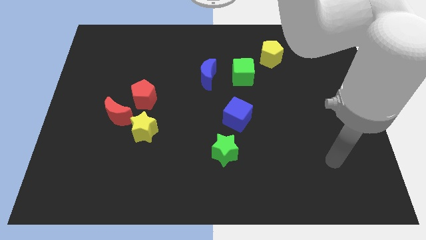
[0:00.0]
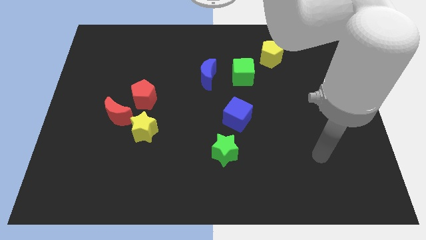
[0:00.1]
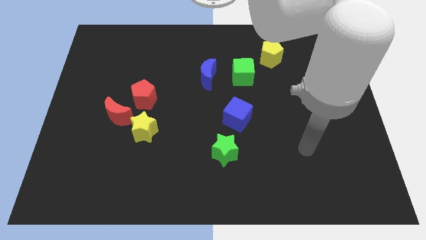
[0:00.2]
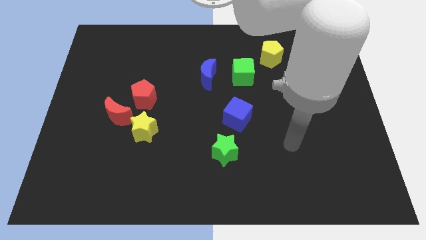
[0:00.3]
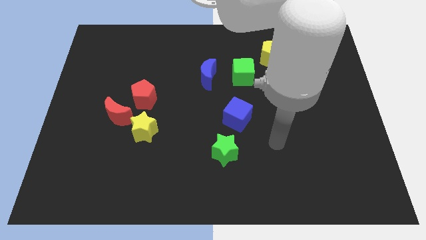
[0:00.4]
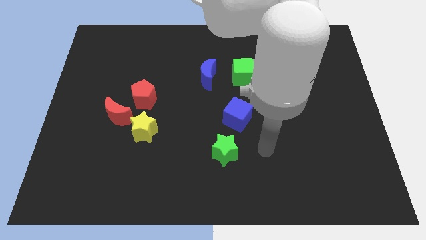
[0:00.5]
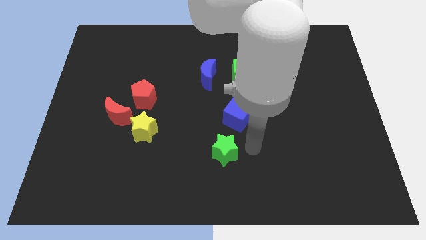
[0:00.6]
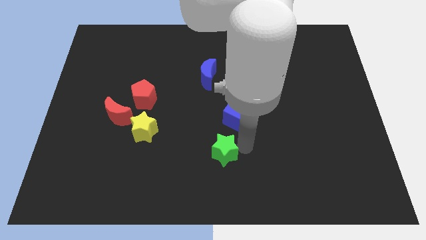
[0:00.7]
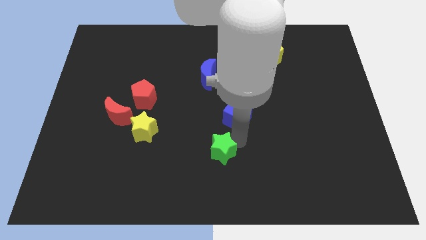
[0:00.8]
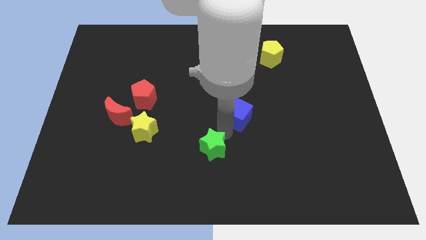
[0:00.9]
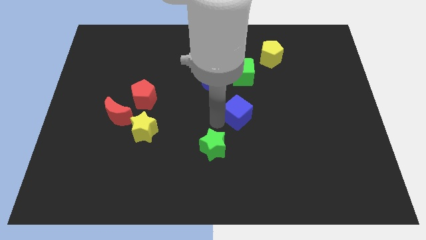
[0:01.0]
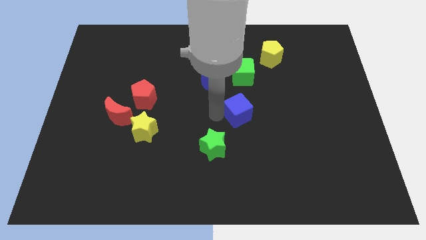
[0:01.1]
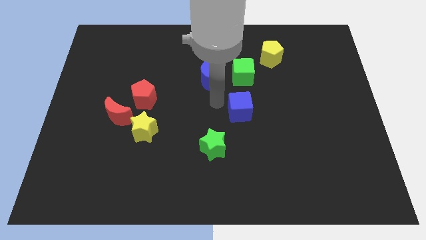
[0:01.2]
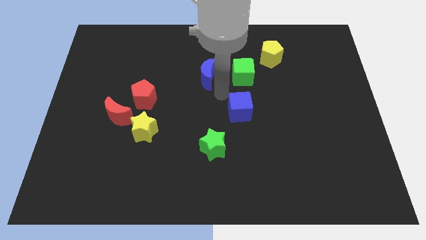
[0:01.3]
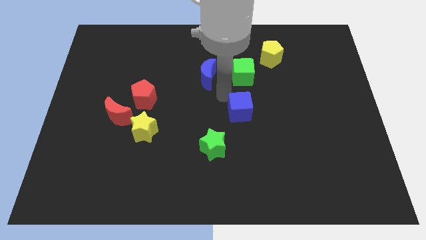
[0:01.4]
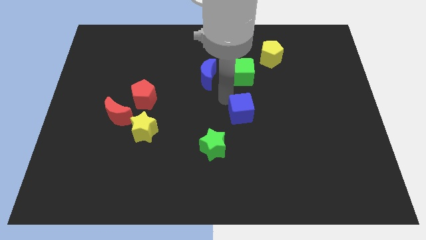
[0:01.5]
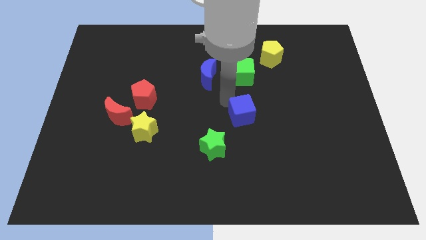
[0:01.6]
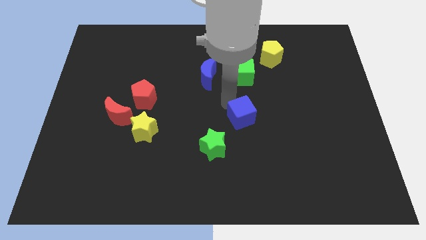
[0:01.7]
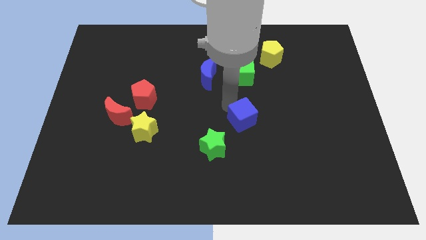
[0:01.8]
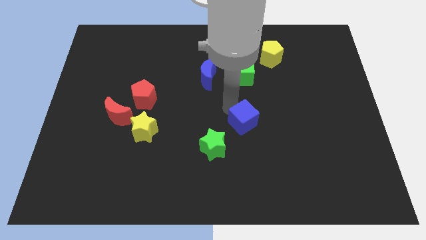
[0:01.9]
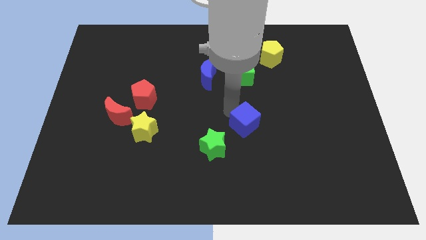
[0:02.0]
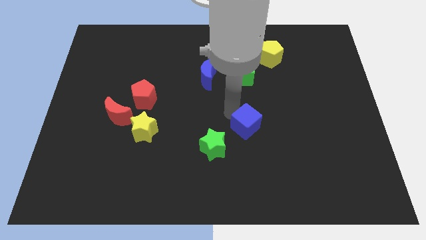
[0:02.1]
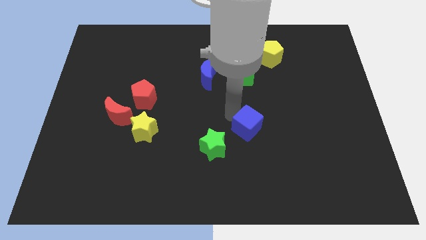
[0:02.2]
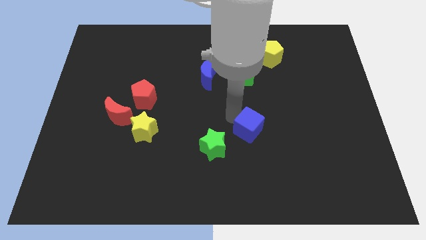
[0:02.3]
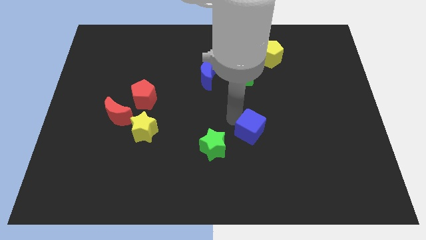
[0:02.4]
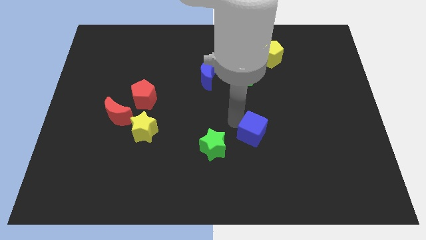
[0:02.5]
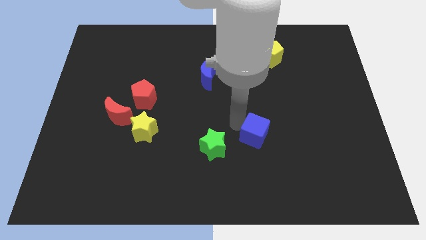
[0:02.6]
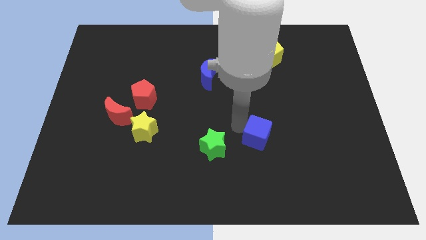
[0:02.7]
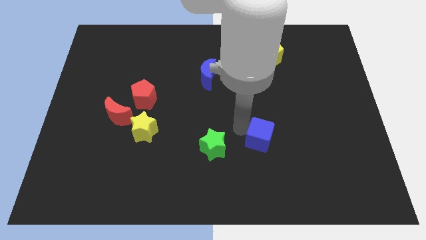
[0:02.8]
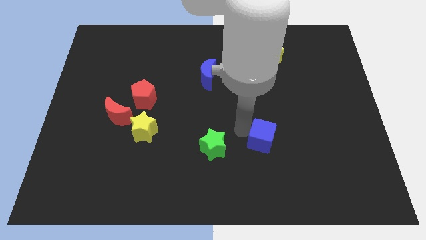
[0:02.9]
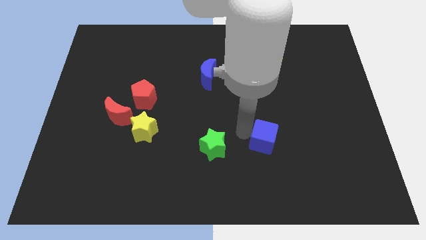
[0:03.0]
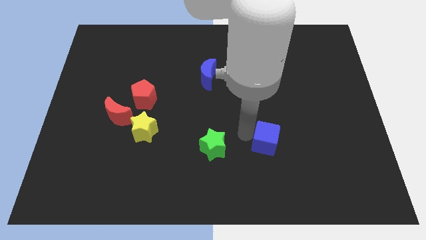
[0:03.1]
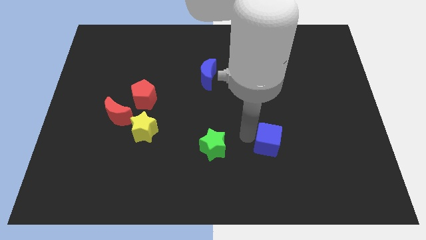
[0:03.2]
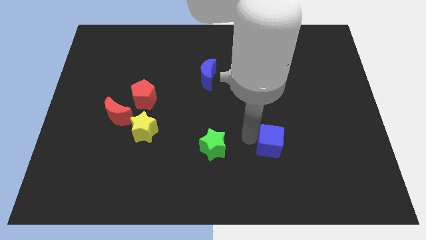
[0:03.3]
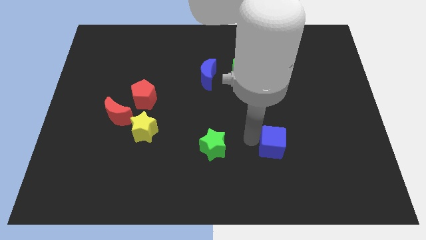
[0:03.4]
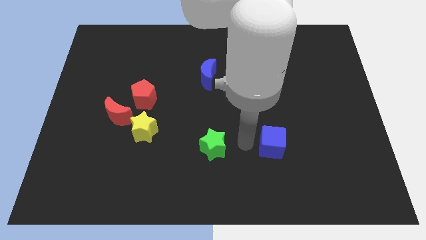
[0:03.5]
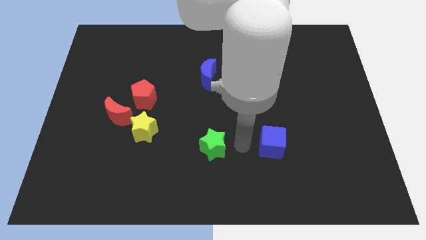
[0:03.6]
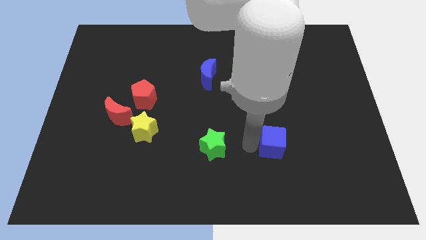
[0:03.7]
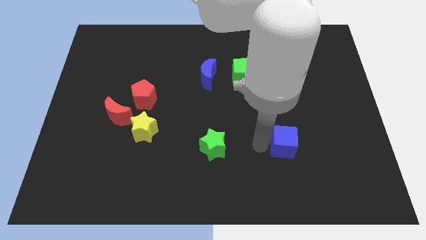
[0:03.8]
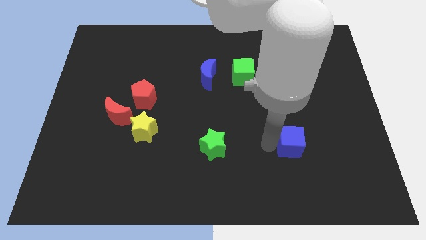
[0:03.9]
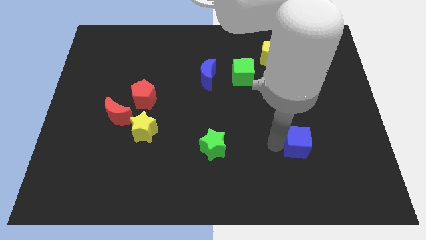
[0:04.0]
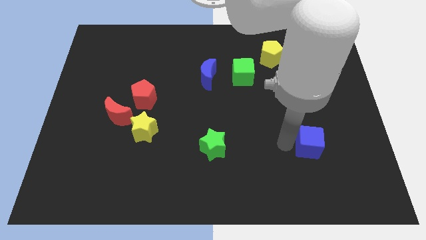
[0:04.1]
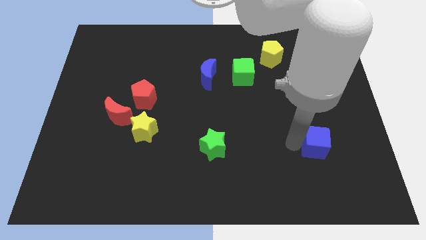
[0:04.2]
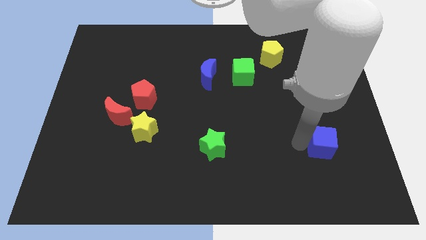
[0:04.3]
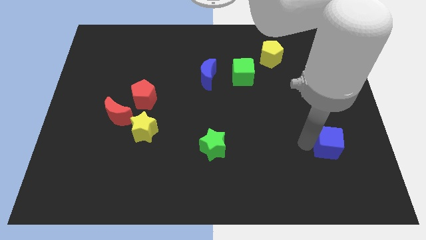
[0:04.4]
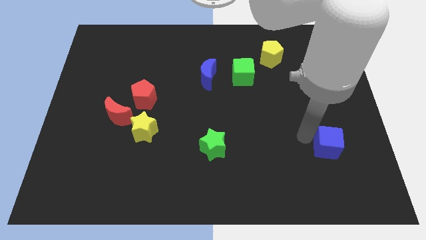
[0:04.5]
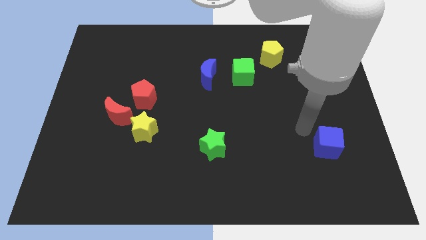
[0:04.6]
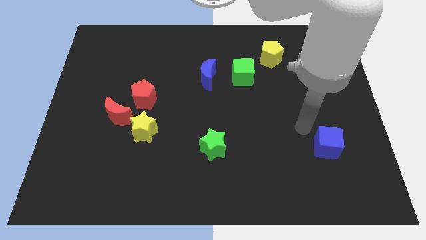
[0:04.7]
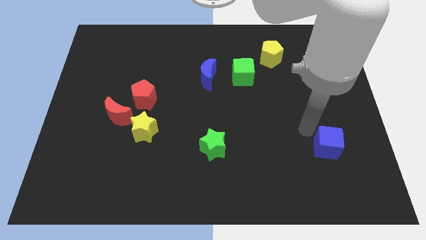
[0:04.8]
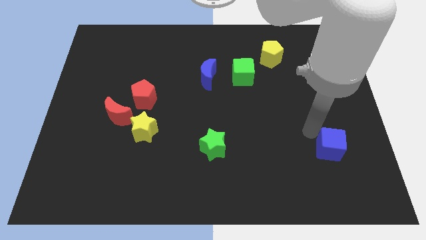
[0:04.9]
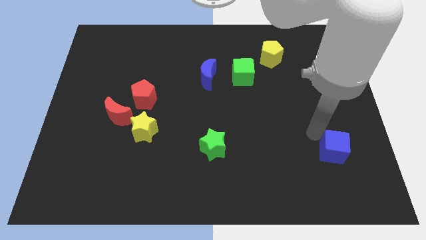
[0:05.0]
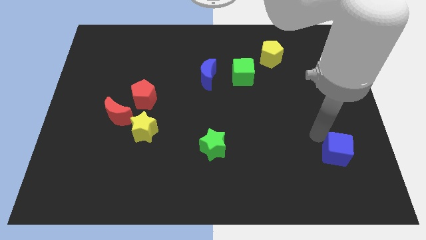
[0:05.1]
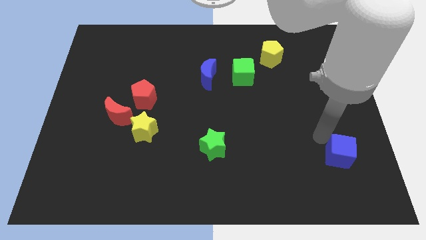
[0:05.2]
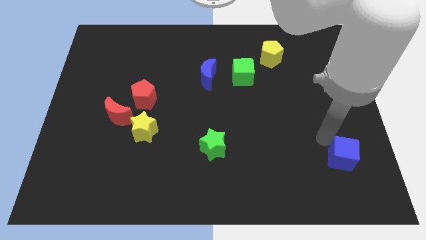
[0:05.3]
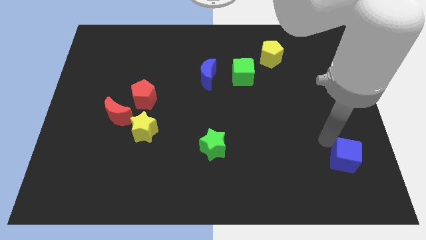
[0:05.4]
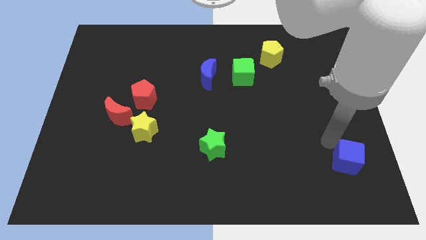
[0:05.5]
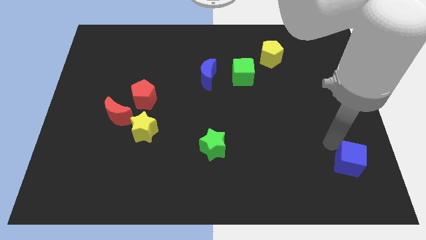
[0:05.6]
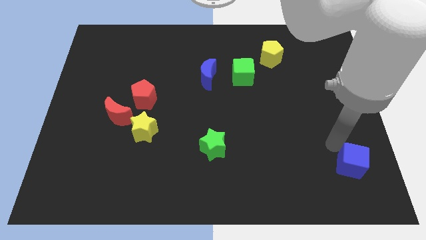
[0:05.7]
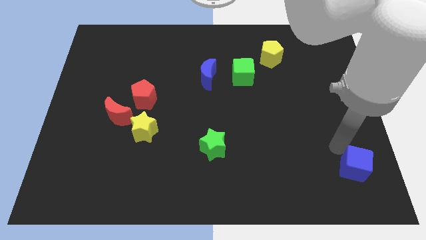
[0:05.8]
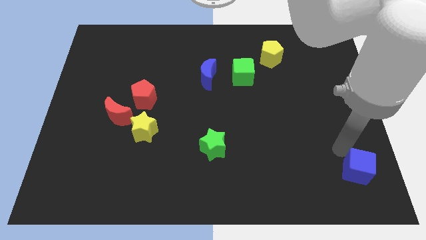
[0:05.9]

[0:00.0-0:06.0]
move the blue cube to the bottom right corner

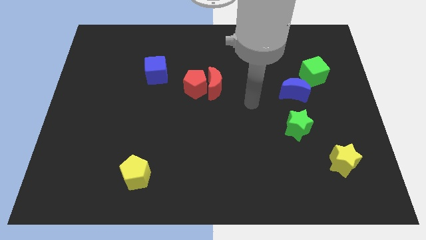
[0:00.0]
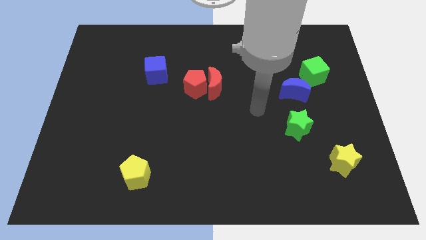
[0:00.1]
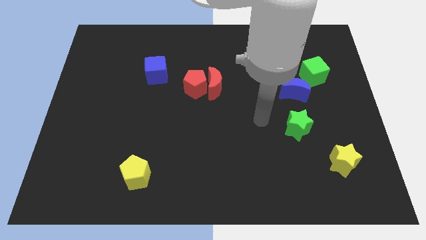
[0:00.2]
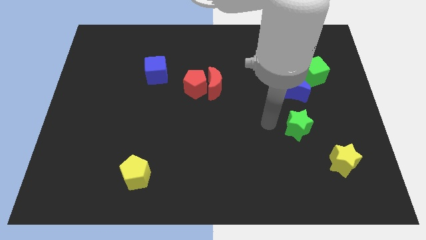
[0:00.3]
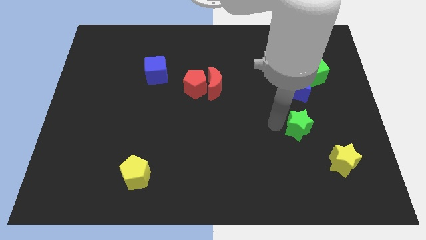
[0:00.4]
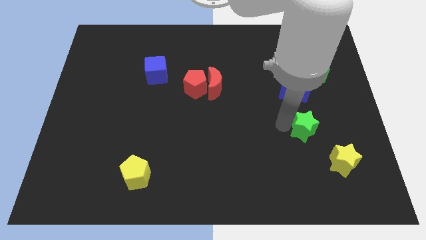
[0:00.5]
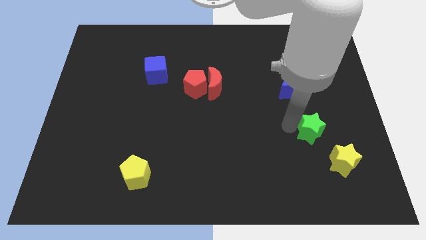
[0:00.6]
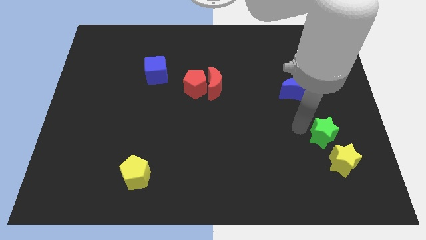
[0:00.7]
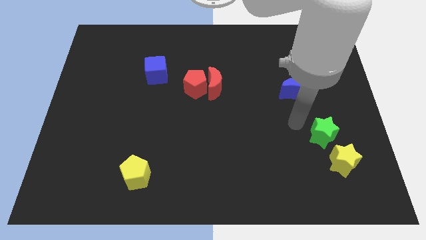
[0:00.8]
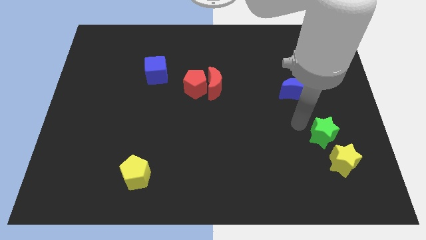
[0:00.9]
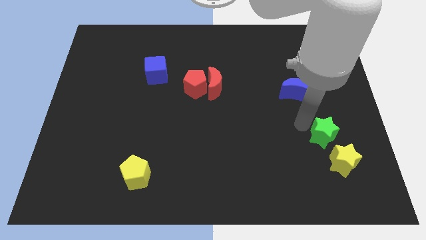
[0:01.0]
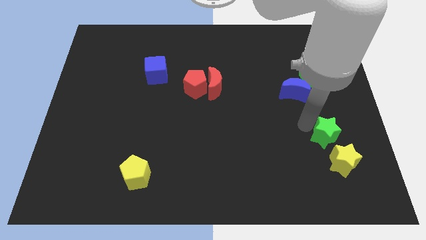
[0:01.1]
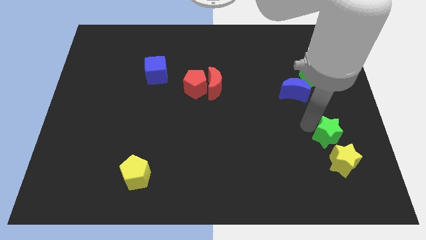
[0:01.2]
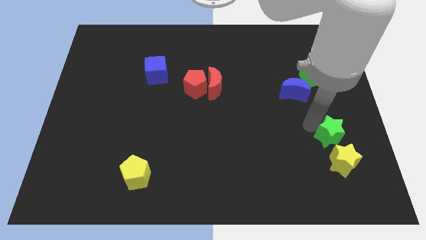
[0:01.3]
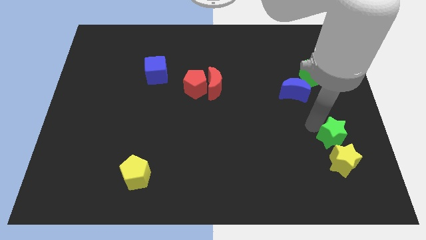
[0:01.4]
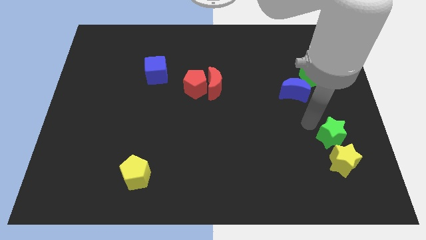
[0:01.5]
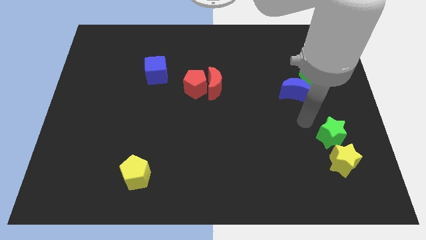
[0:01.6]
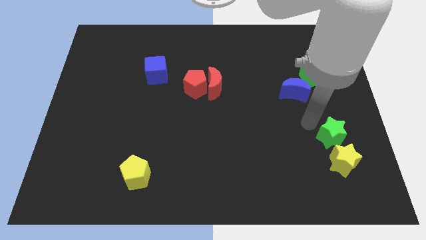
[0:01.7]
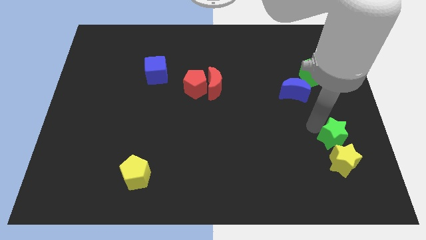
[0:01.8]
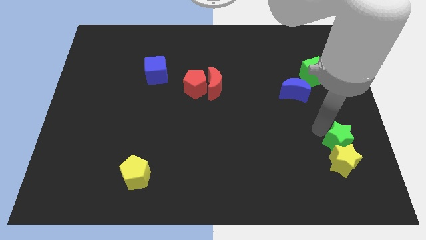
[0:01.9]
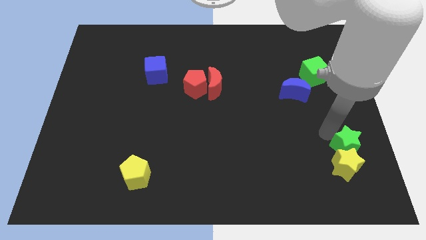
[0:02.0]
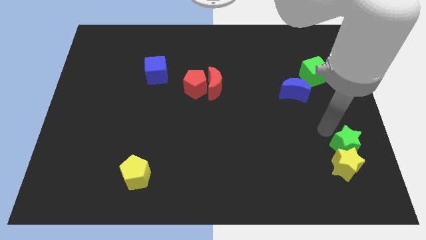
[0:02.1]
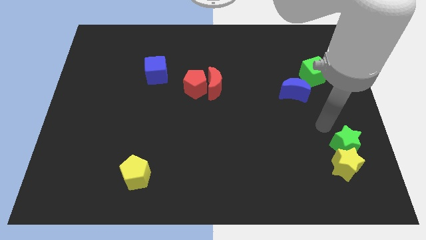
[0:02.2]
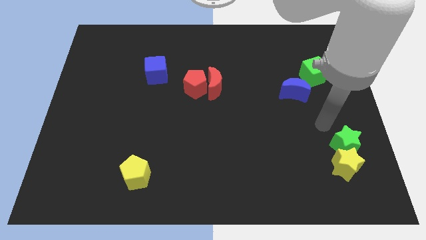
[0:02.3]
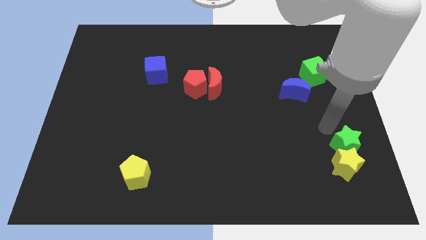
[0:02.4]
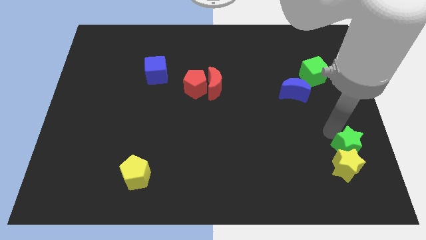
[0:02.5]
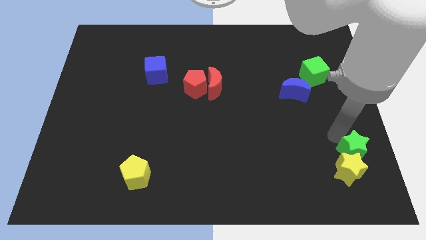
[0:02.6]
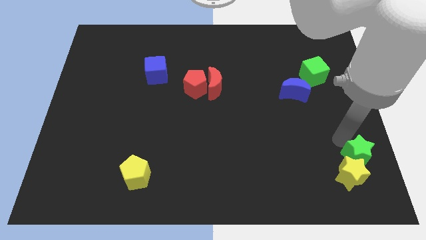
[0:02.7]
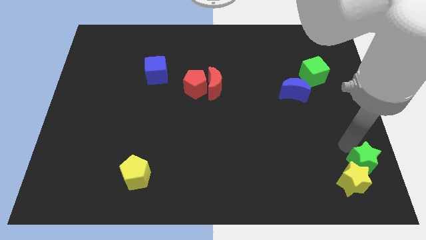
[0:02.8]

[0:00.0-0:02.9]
put the green star to the lower right corner
